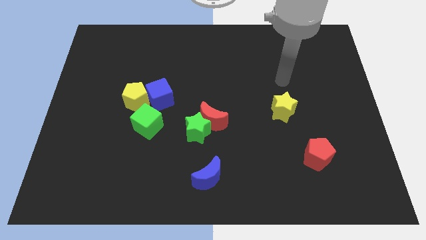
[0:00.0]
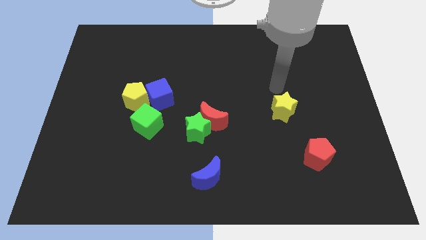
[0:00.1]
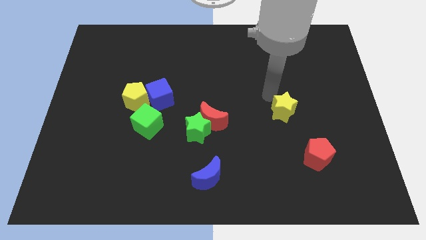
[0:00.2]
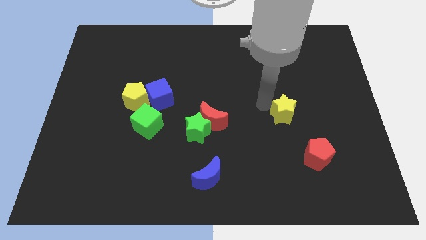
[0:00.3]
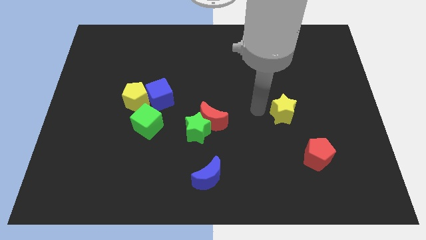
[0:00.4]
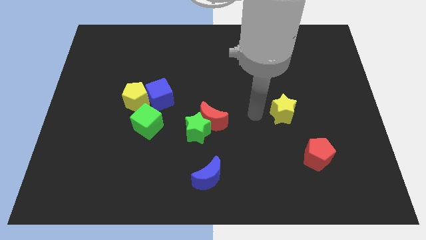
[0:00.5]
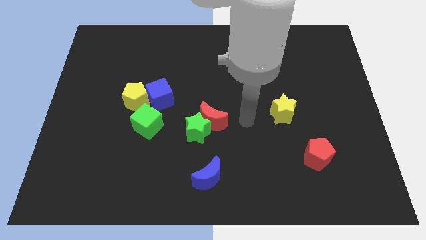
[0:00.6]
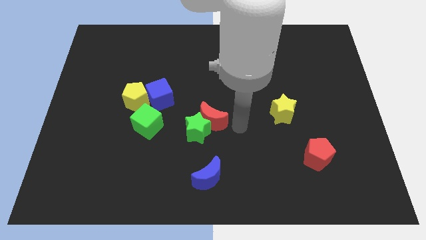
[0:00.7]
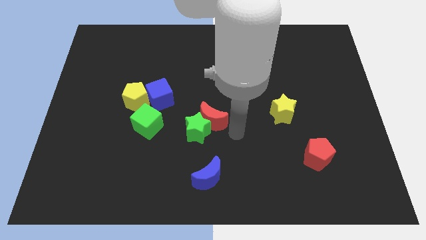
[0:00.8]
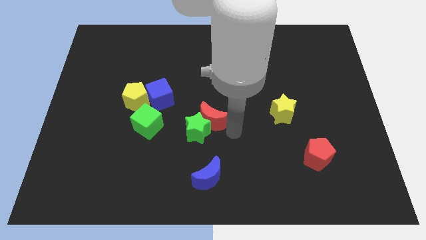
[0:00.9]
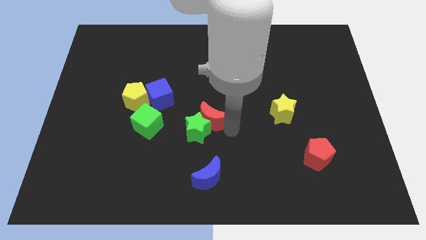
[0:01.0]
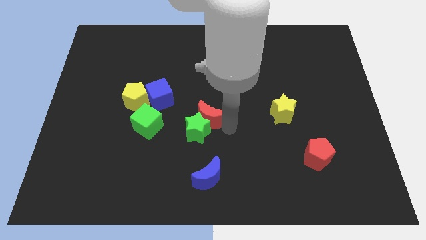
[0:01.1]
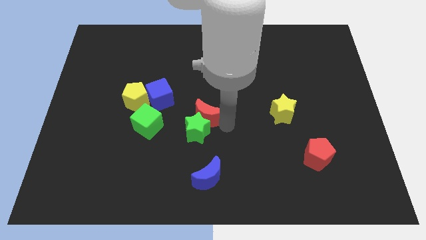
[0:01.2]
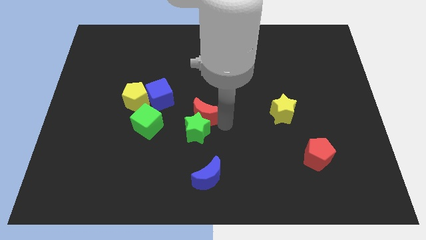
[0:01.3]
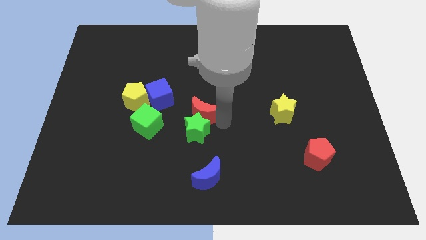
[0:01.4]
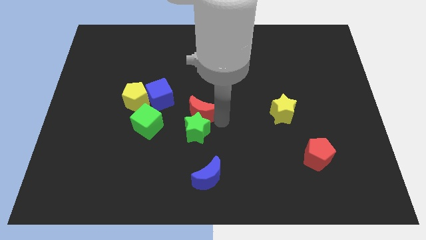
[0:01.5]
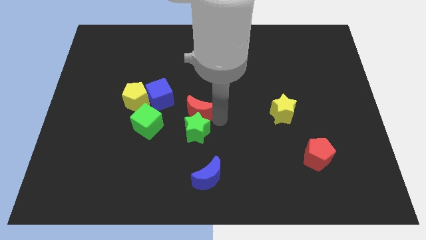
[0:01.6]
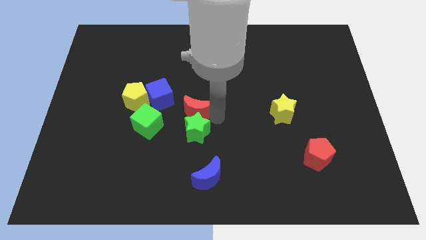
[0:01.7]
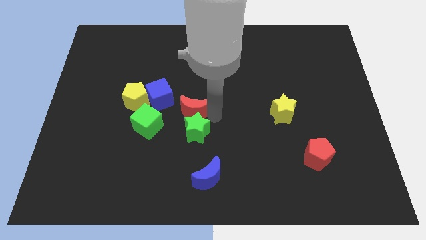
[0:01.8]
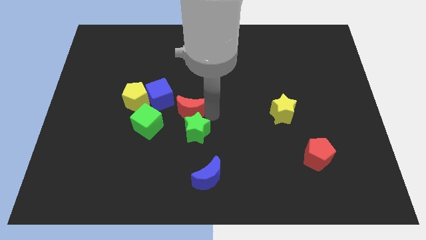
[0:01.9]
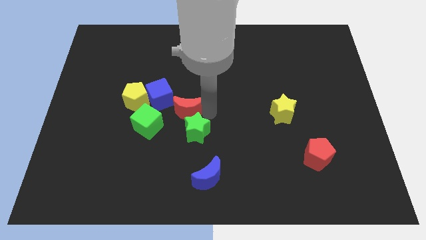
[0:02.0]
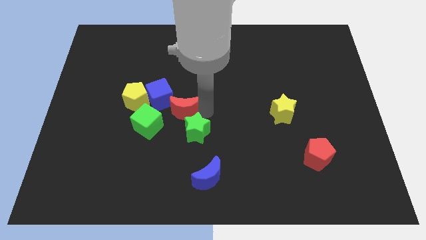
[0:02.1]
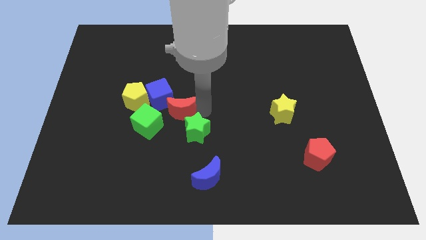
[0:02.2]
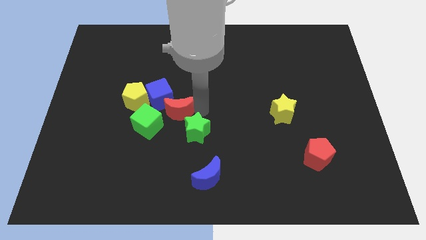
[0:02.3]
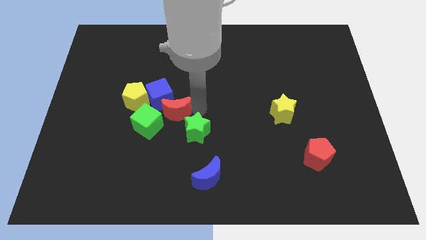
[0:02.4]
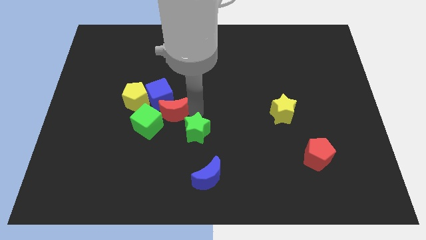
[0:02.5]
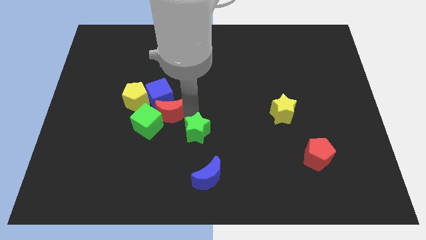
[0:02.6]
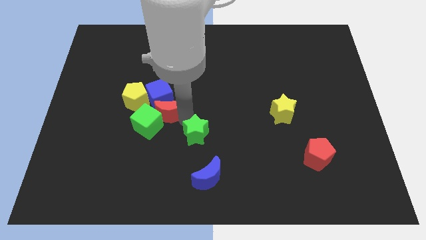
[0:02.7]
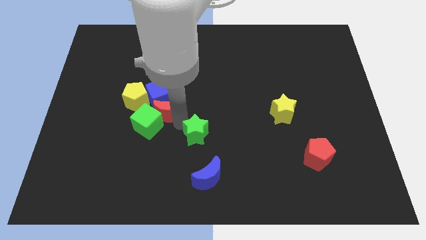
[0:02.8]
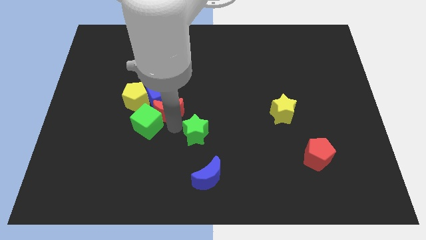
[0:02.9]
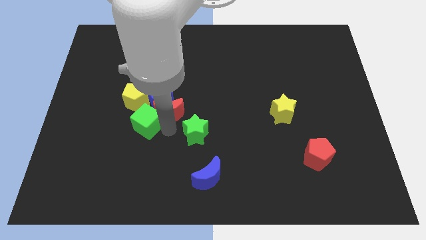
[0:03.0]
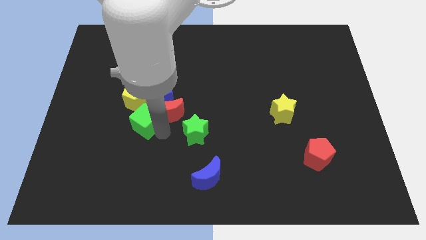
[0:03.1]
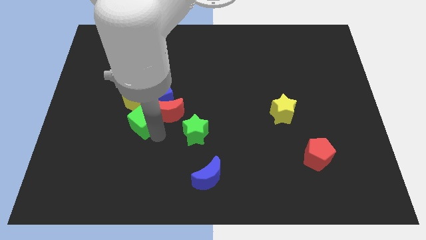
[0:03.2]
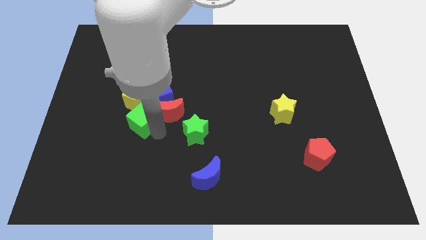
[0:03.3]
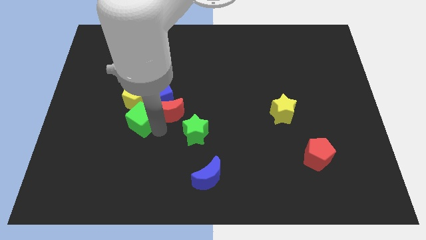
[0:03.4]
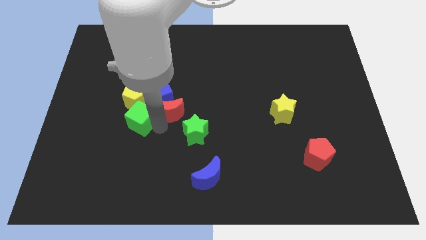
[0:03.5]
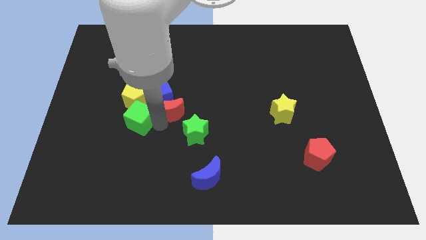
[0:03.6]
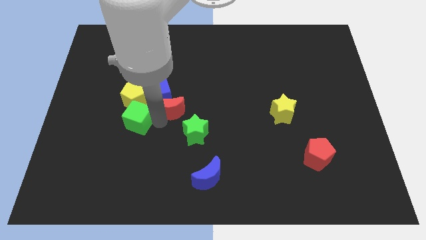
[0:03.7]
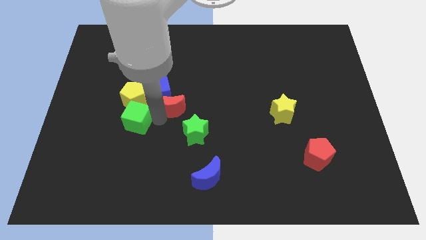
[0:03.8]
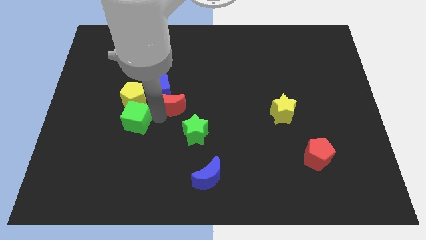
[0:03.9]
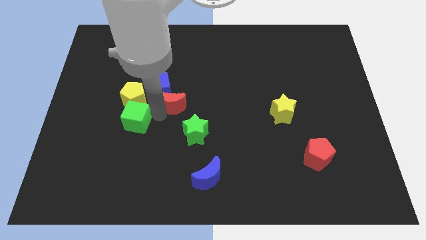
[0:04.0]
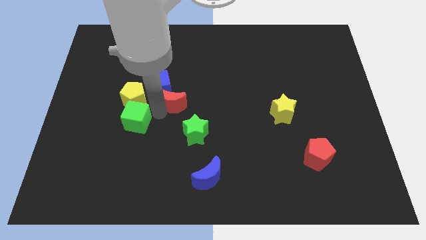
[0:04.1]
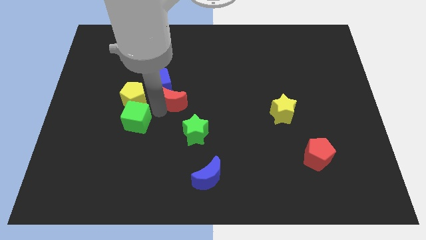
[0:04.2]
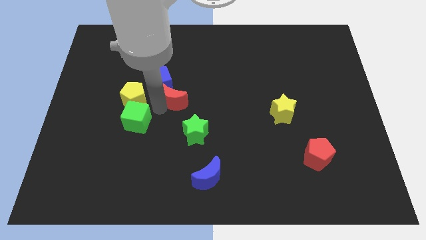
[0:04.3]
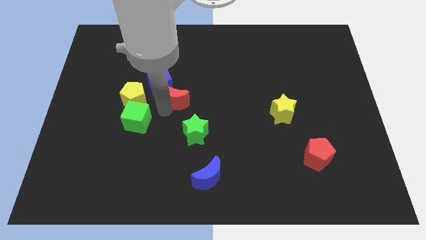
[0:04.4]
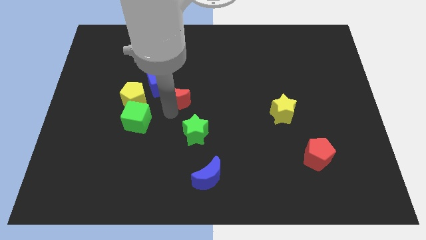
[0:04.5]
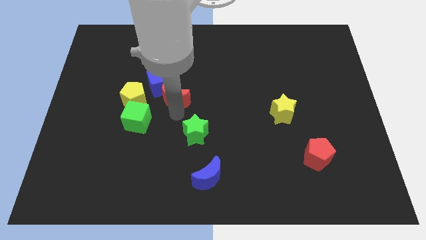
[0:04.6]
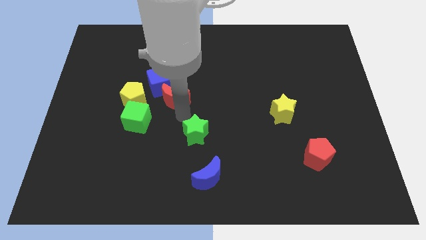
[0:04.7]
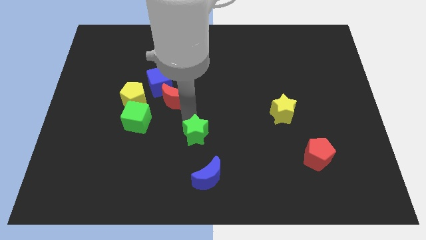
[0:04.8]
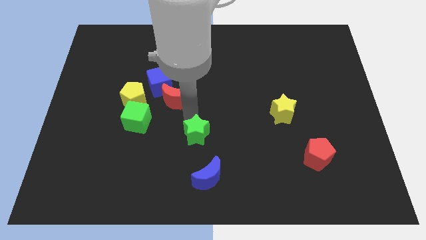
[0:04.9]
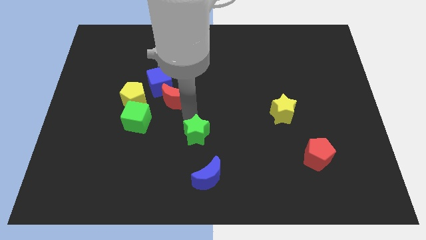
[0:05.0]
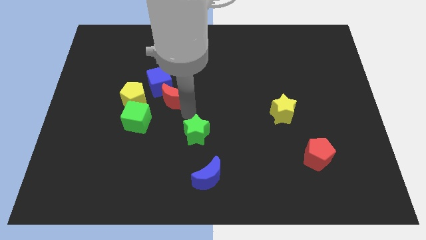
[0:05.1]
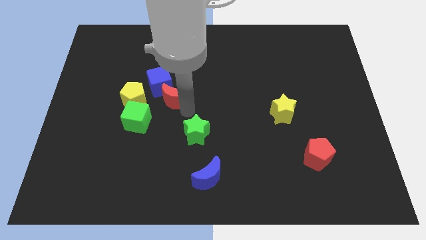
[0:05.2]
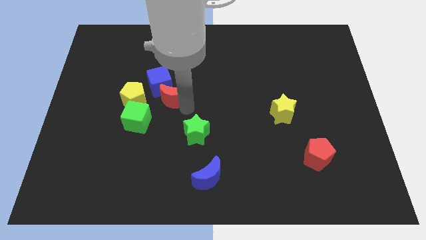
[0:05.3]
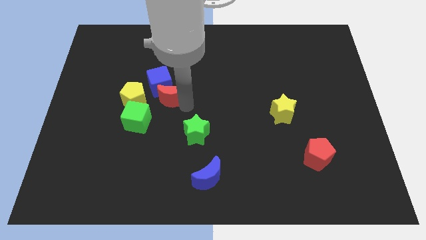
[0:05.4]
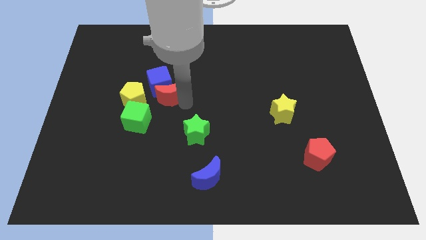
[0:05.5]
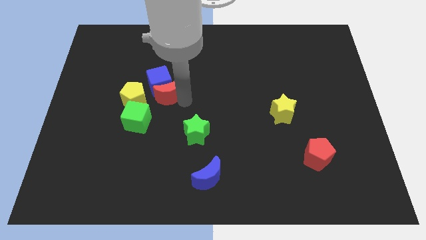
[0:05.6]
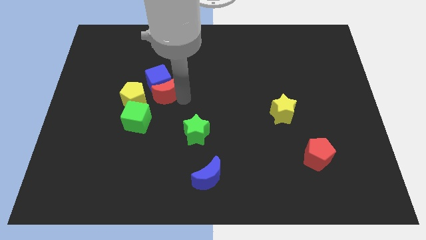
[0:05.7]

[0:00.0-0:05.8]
move the red moon diagonally up and to the right of the yellow pentagon

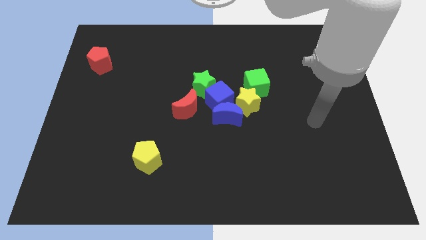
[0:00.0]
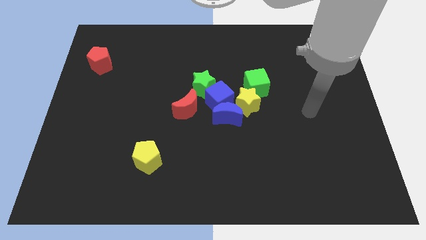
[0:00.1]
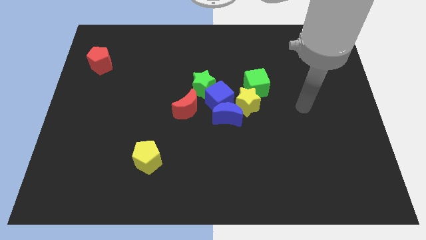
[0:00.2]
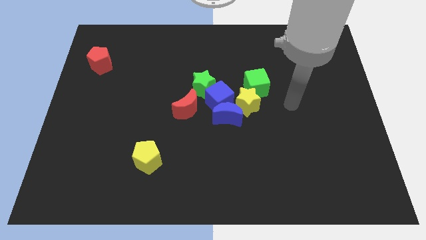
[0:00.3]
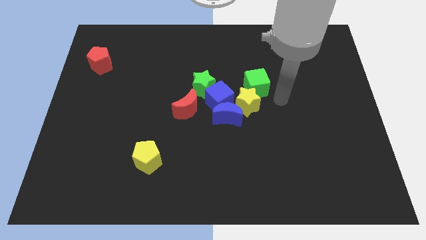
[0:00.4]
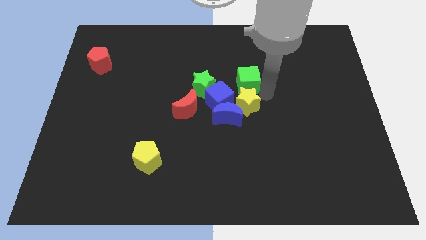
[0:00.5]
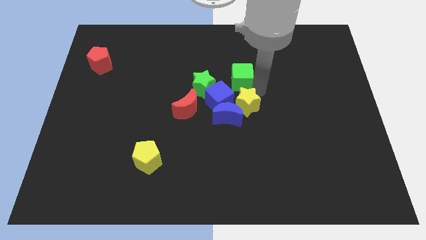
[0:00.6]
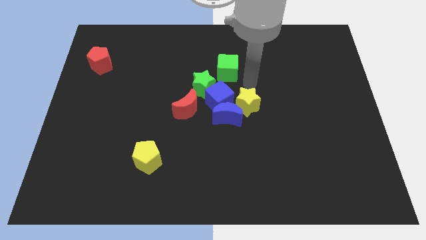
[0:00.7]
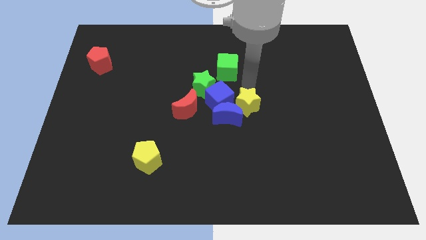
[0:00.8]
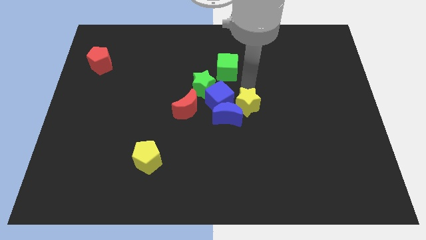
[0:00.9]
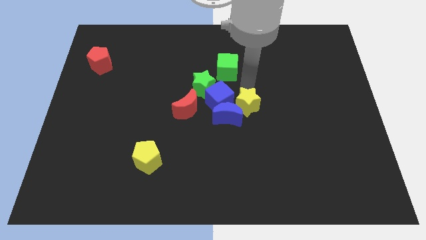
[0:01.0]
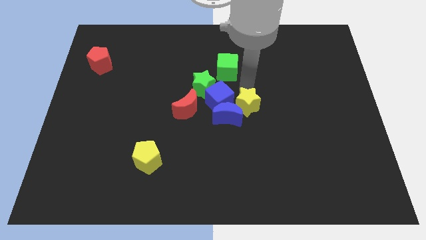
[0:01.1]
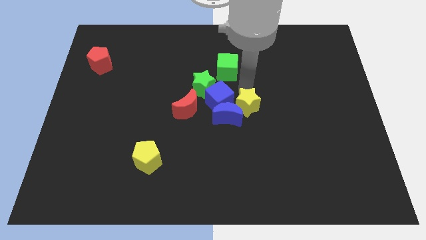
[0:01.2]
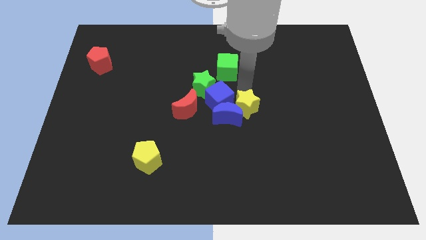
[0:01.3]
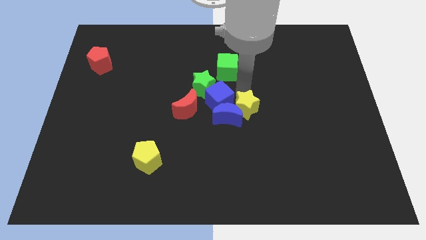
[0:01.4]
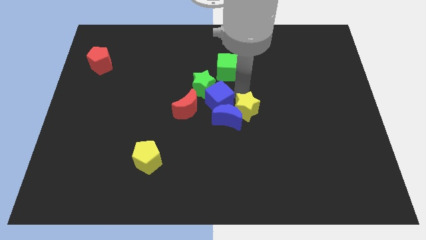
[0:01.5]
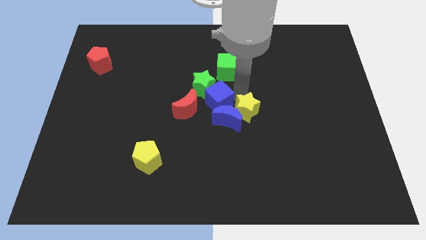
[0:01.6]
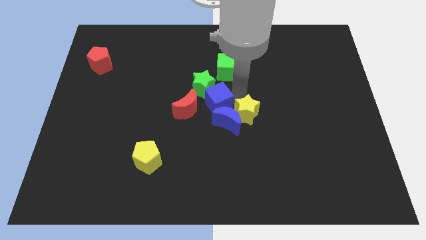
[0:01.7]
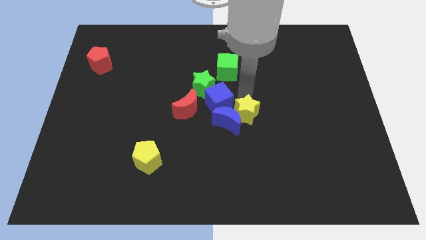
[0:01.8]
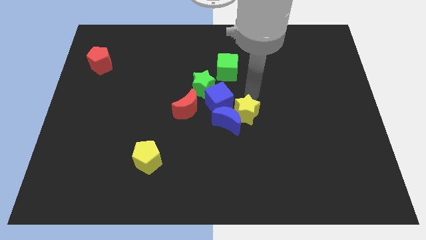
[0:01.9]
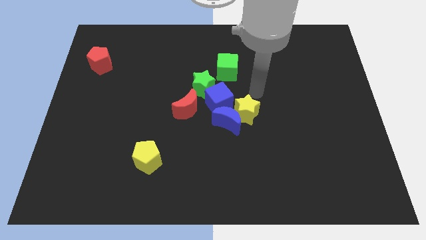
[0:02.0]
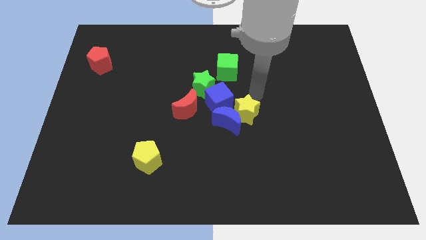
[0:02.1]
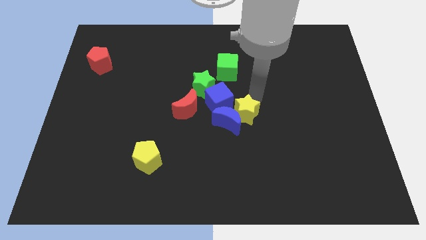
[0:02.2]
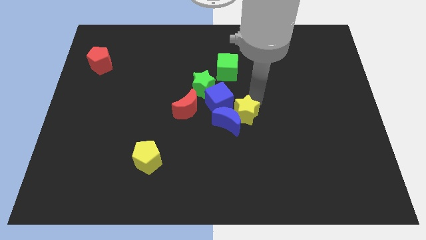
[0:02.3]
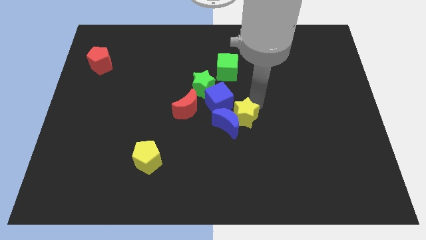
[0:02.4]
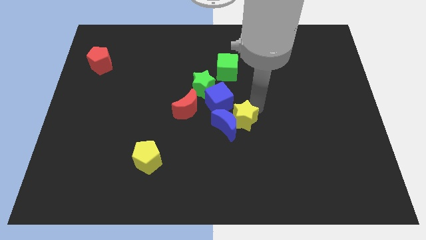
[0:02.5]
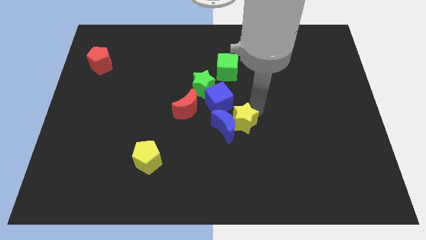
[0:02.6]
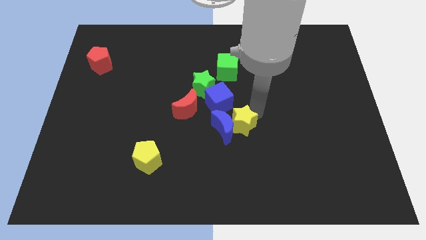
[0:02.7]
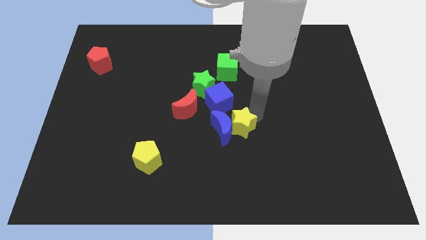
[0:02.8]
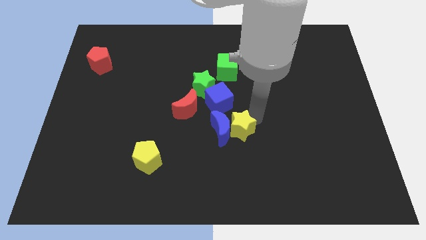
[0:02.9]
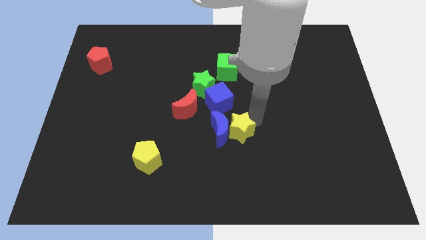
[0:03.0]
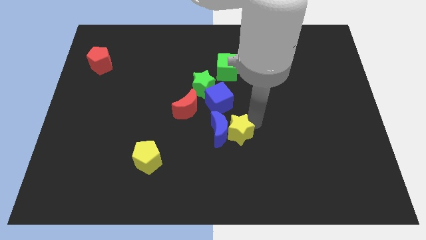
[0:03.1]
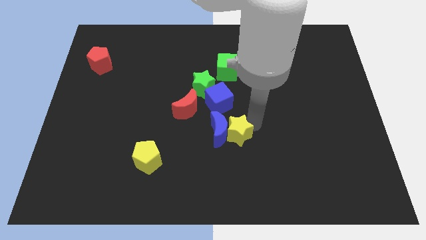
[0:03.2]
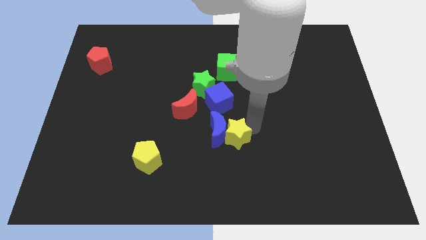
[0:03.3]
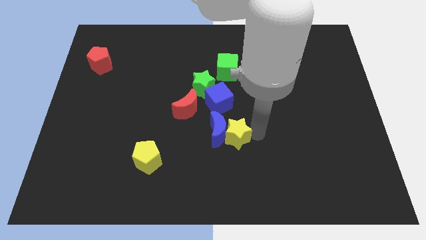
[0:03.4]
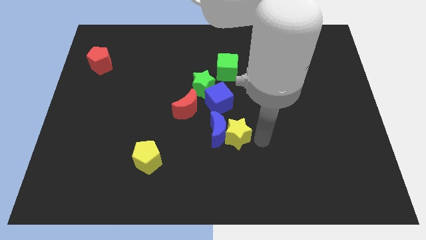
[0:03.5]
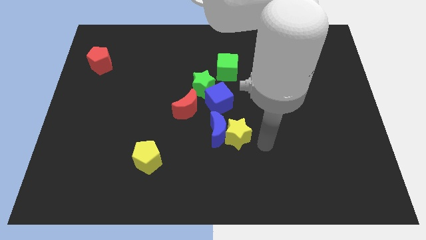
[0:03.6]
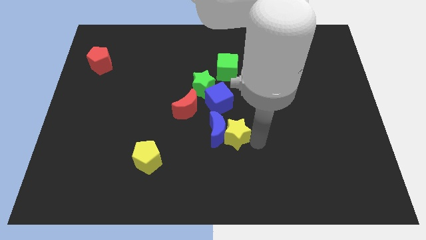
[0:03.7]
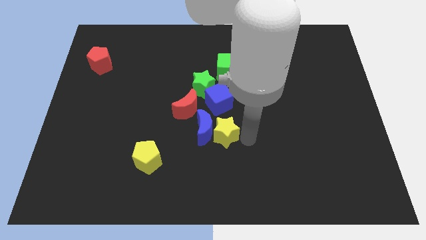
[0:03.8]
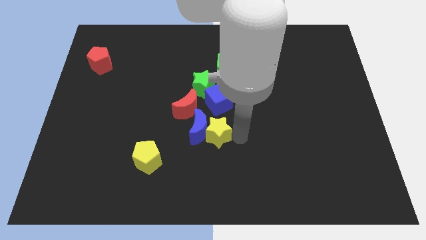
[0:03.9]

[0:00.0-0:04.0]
slide the yellow star below the green star
